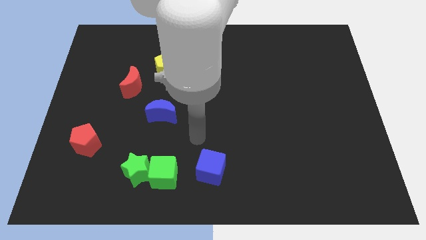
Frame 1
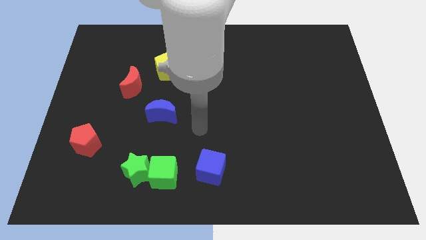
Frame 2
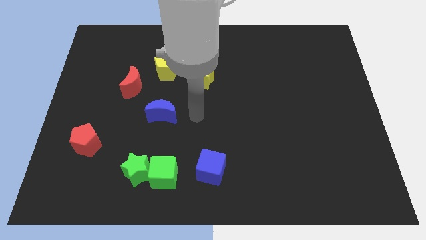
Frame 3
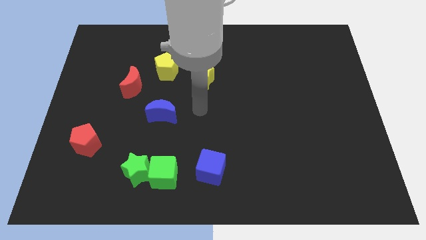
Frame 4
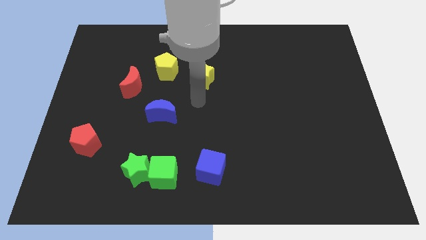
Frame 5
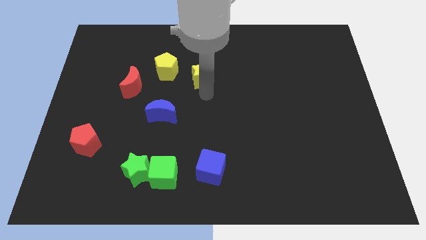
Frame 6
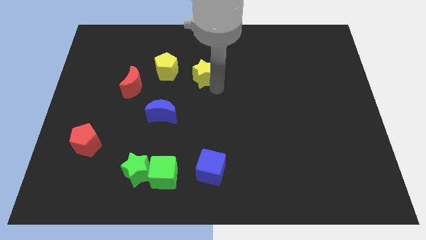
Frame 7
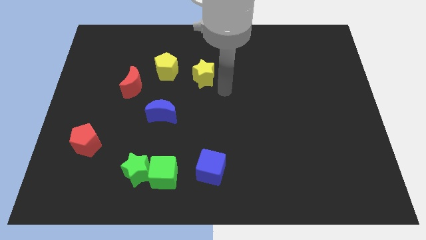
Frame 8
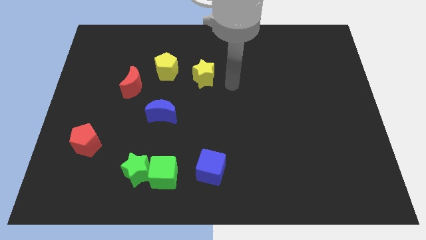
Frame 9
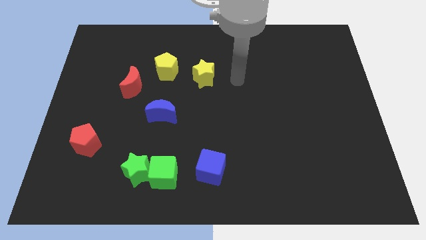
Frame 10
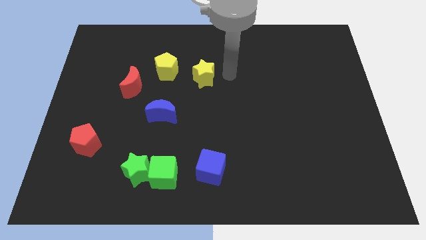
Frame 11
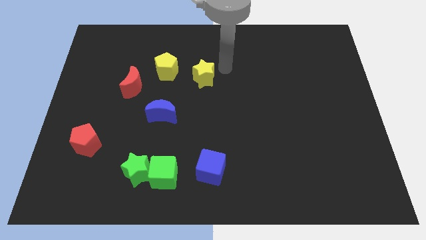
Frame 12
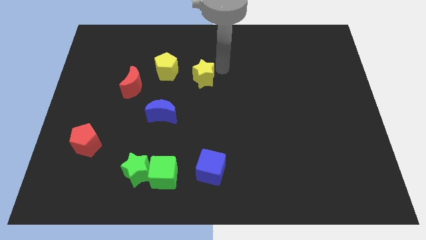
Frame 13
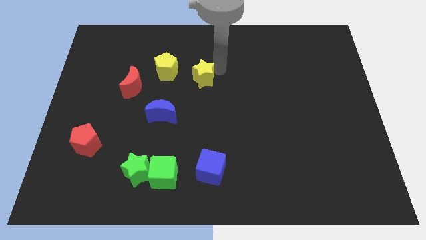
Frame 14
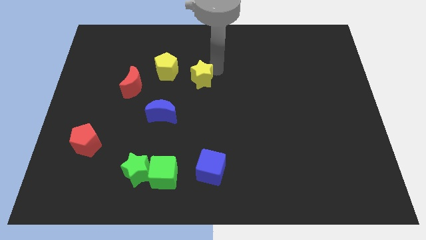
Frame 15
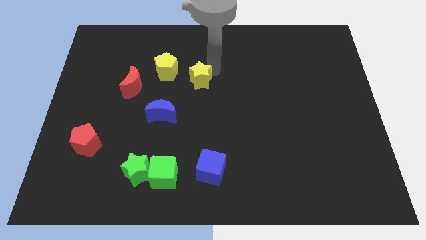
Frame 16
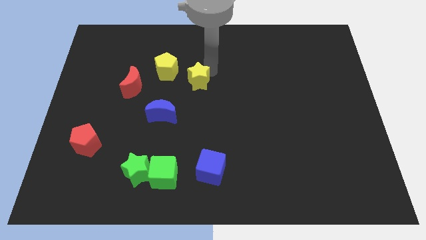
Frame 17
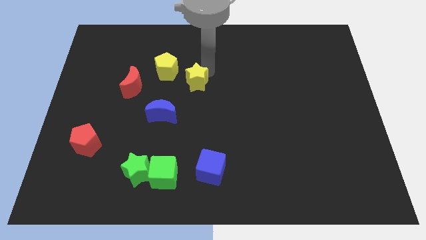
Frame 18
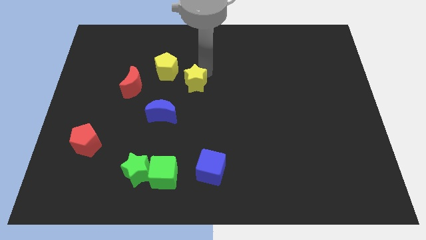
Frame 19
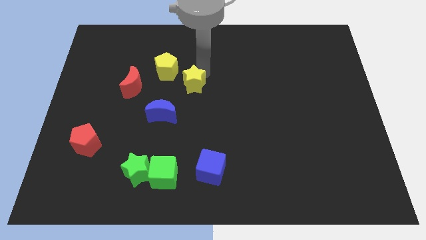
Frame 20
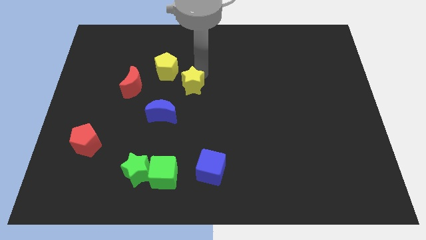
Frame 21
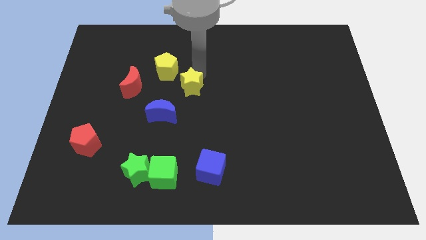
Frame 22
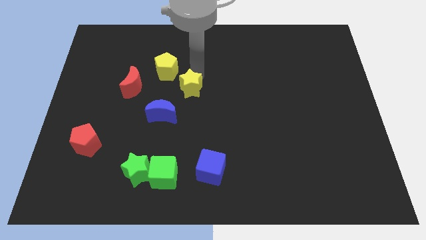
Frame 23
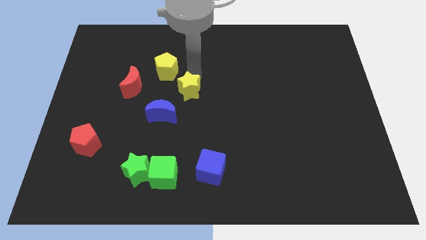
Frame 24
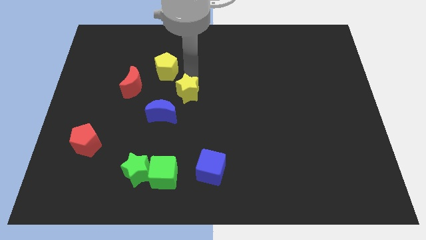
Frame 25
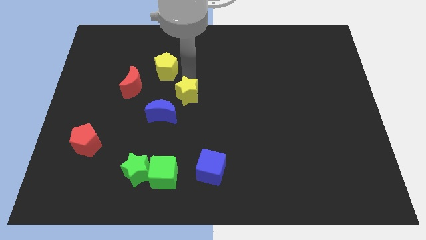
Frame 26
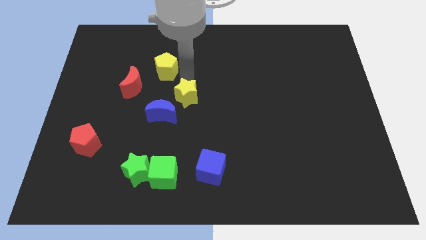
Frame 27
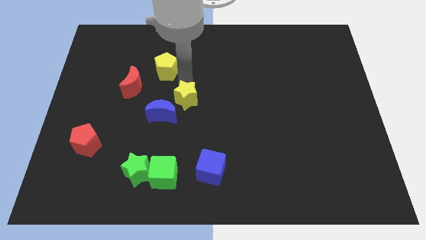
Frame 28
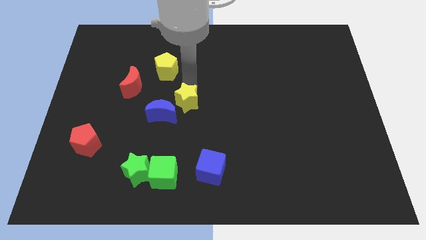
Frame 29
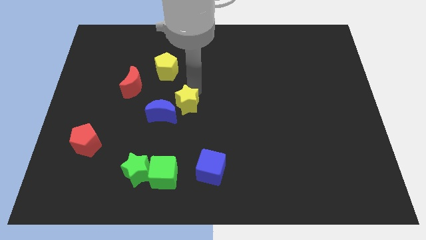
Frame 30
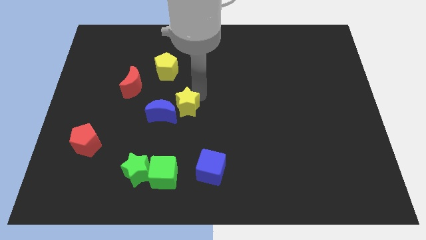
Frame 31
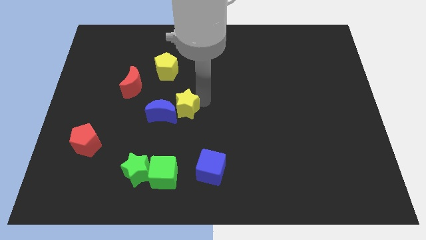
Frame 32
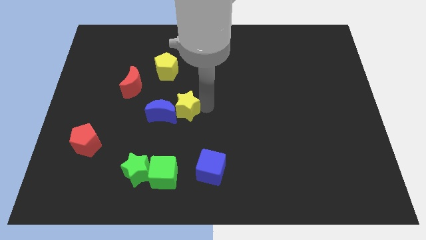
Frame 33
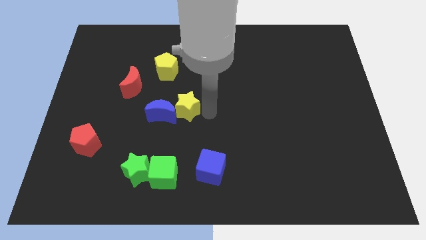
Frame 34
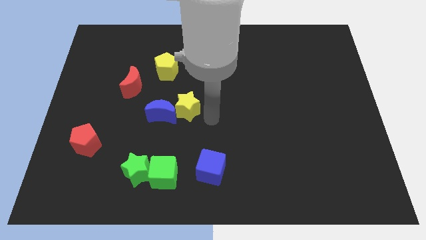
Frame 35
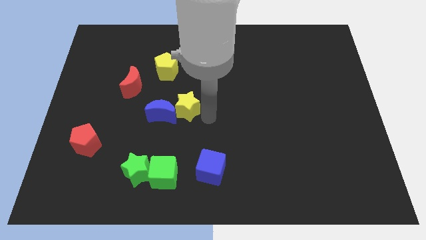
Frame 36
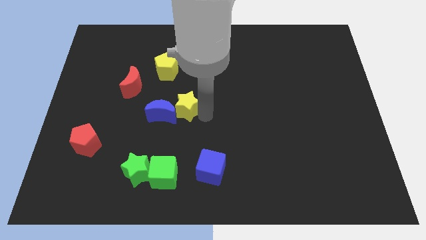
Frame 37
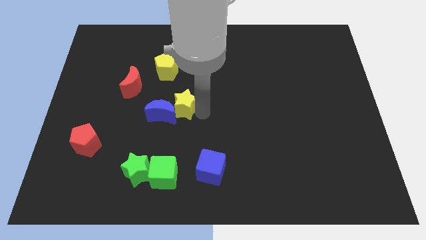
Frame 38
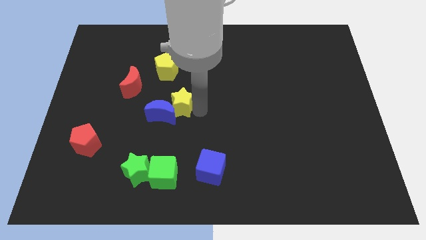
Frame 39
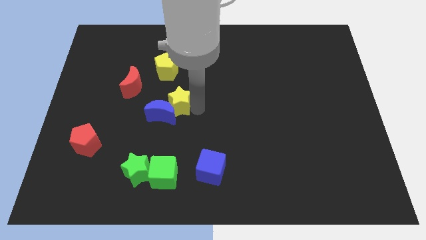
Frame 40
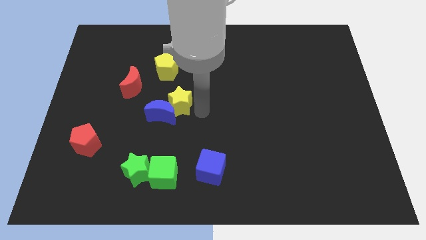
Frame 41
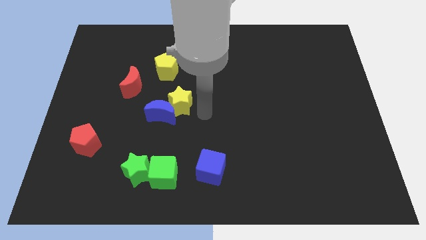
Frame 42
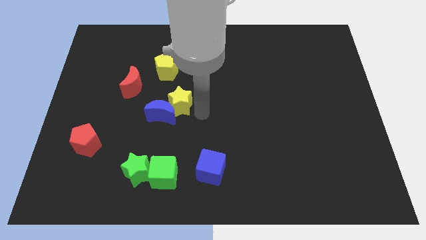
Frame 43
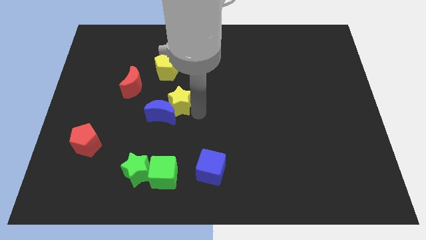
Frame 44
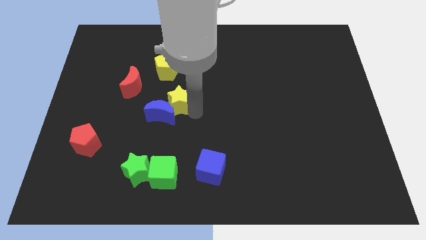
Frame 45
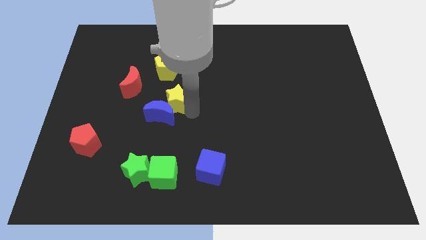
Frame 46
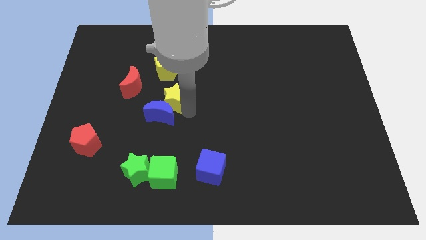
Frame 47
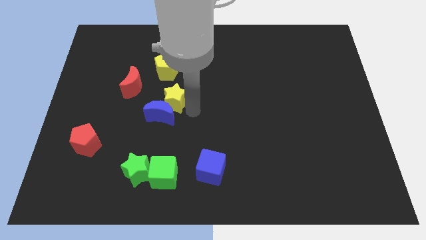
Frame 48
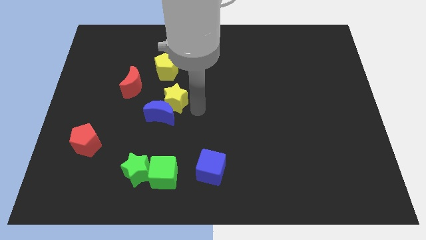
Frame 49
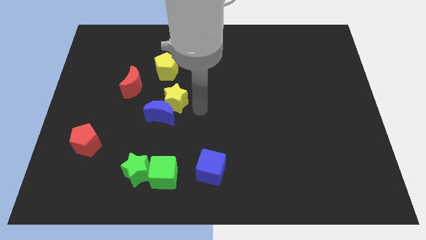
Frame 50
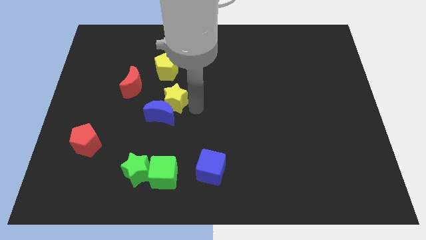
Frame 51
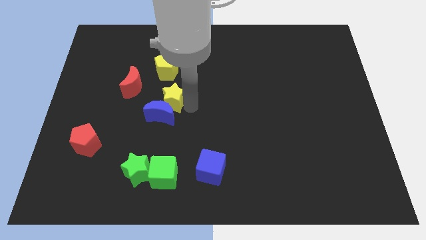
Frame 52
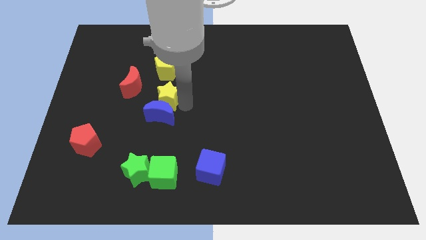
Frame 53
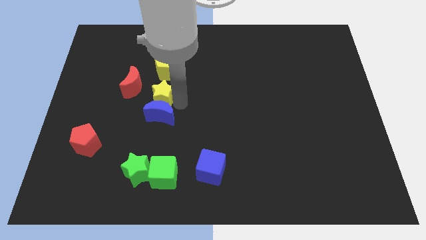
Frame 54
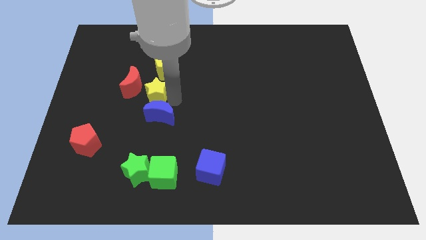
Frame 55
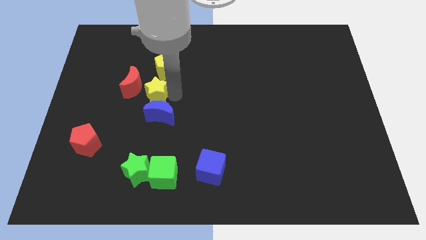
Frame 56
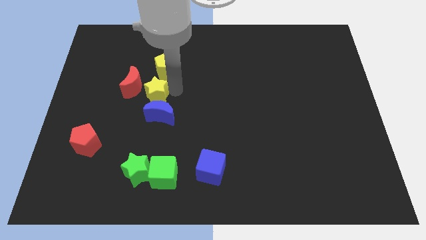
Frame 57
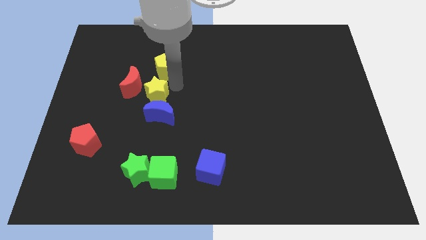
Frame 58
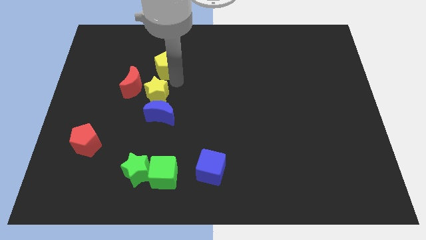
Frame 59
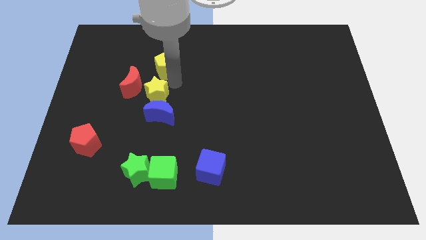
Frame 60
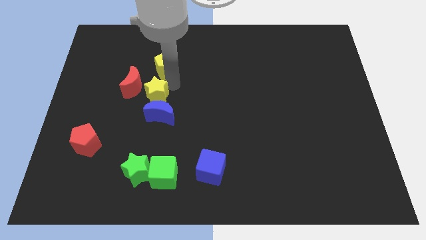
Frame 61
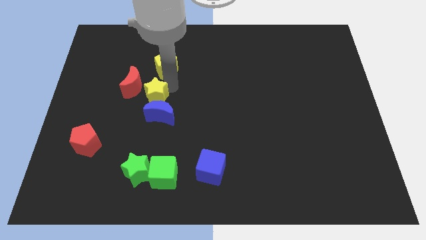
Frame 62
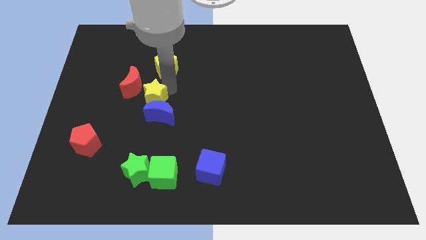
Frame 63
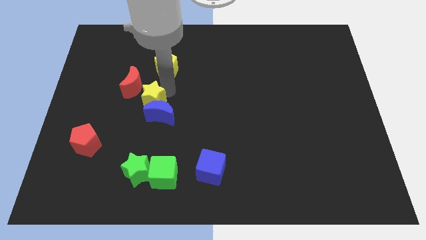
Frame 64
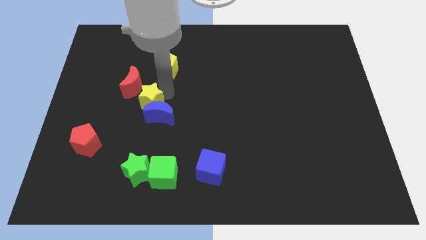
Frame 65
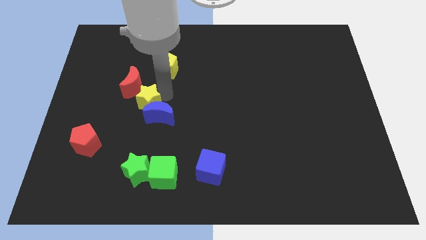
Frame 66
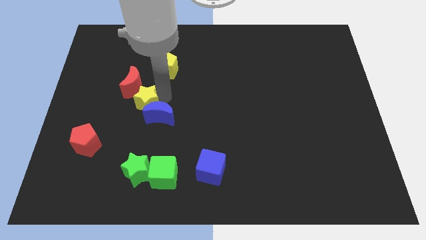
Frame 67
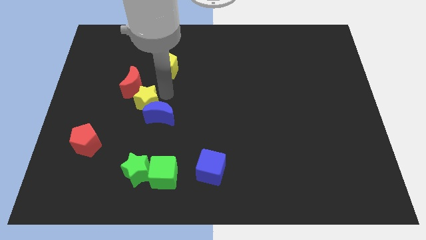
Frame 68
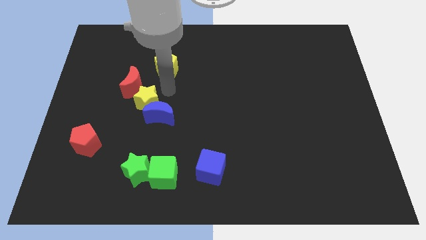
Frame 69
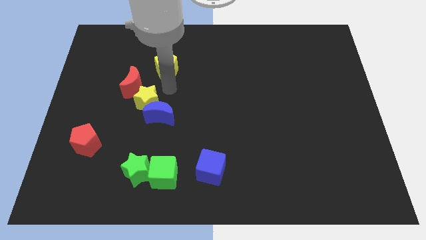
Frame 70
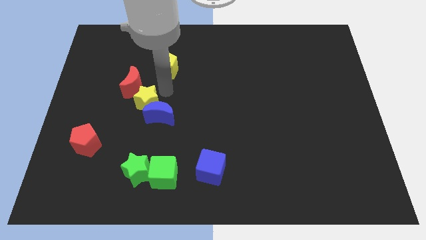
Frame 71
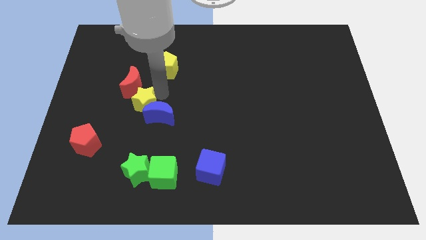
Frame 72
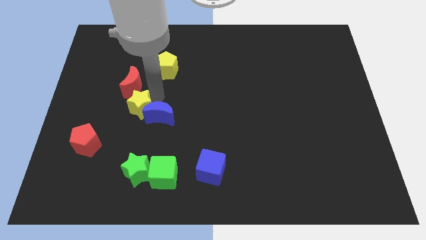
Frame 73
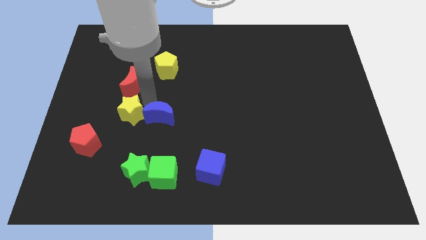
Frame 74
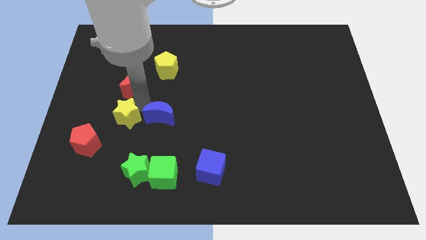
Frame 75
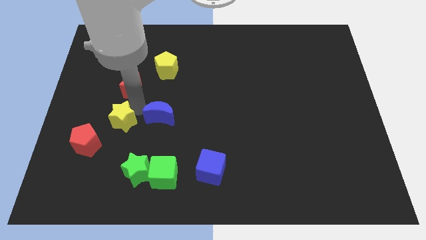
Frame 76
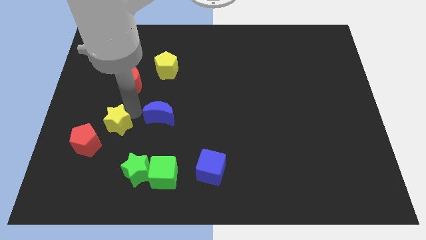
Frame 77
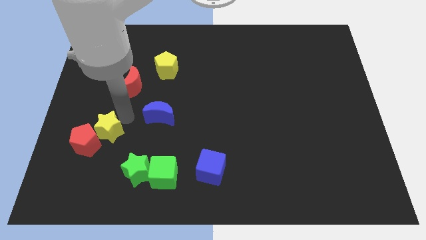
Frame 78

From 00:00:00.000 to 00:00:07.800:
slide the yellow star close to the red pentagon
